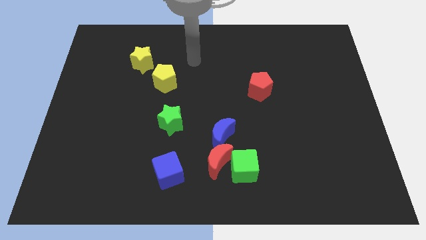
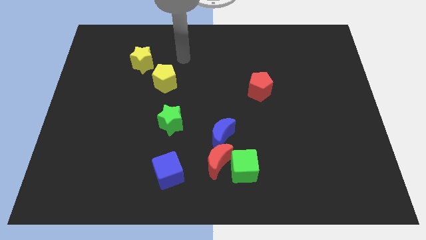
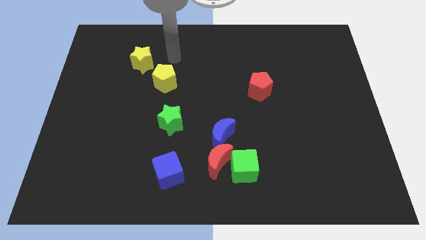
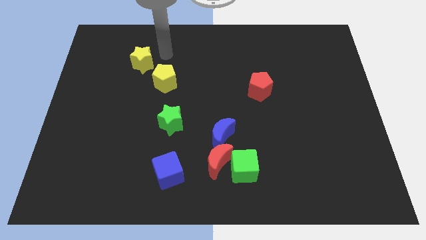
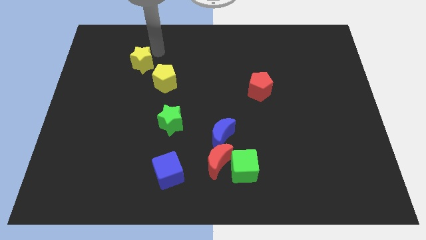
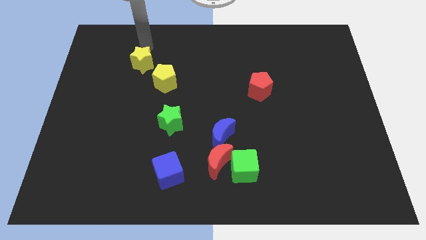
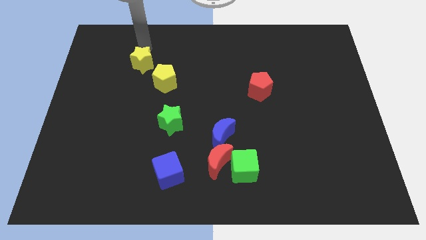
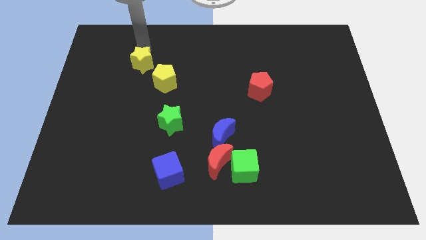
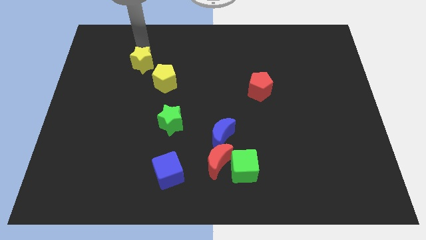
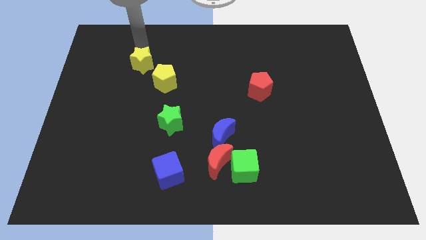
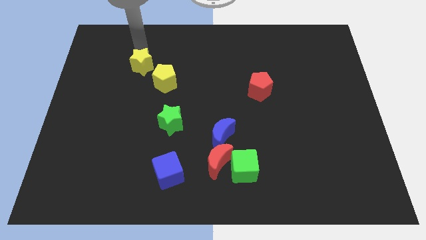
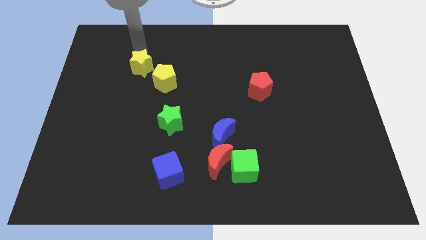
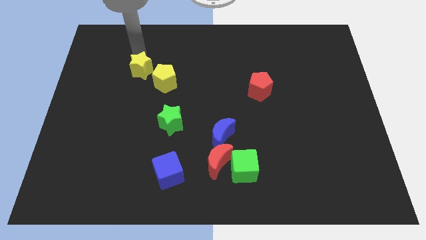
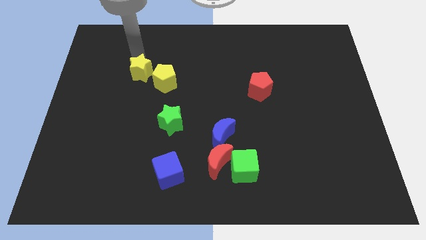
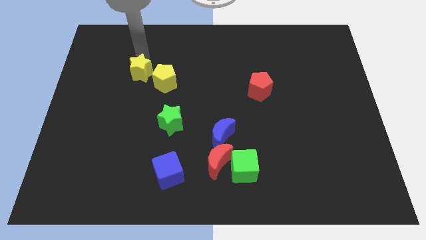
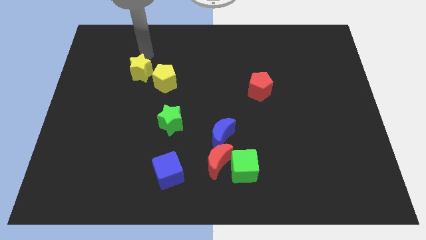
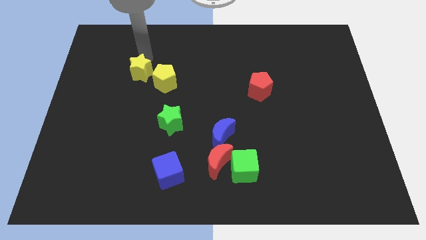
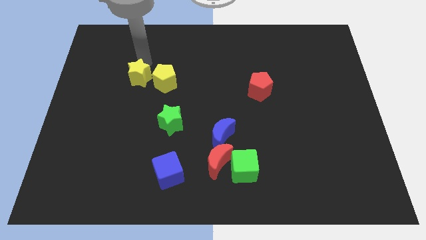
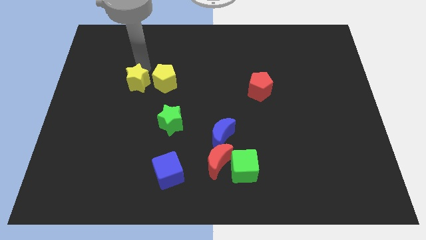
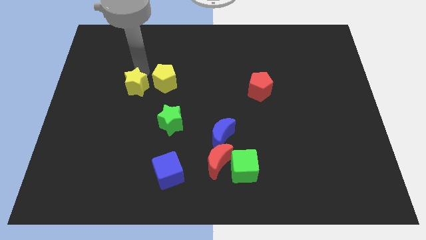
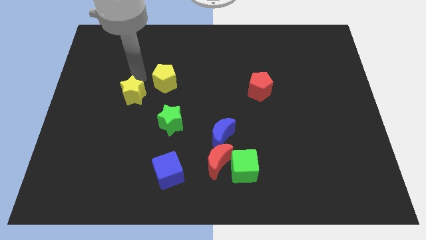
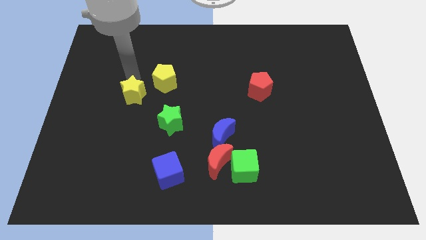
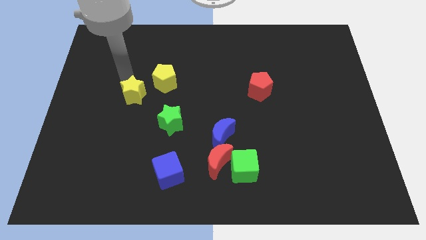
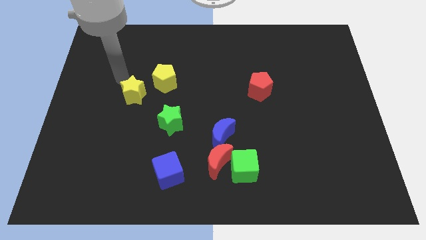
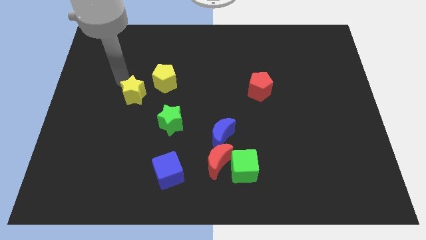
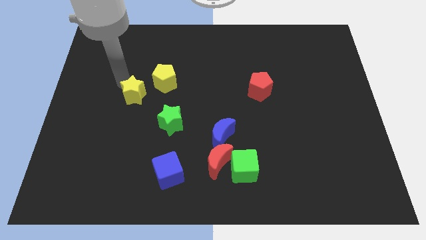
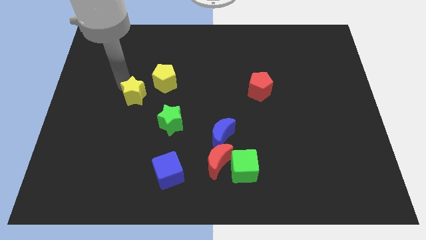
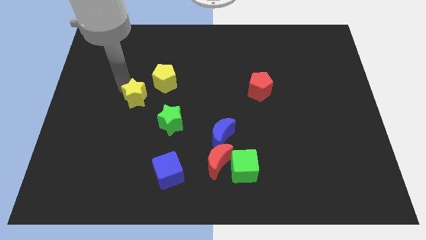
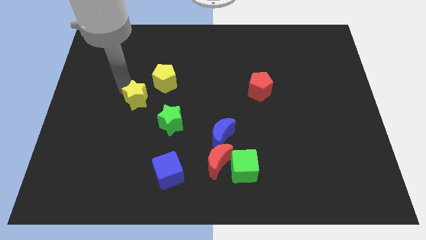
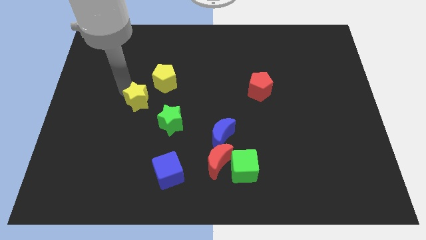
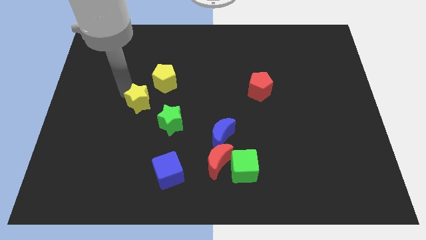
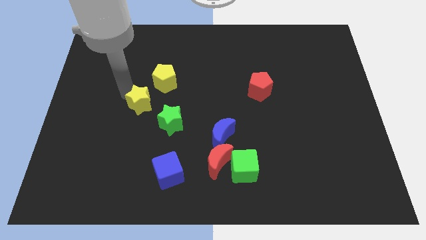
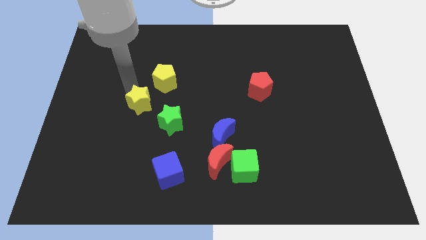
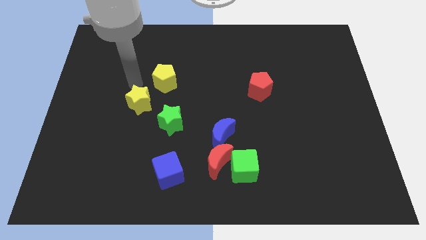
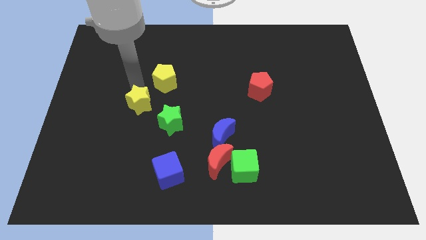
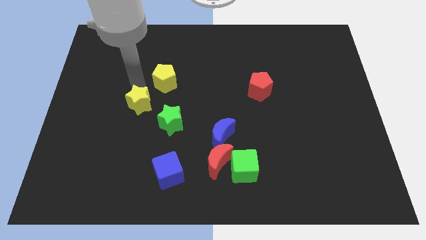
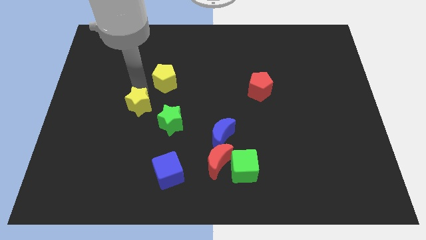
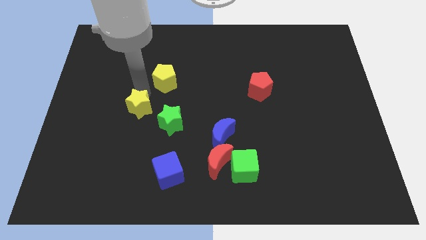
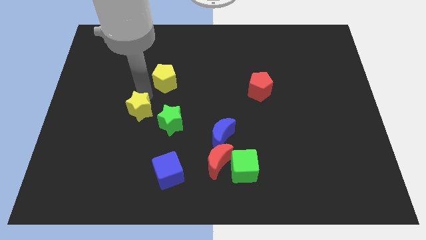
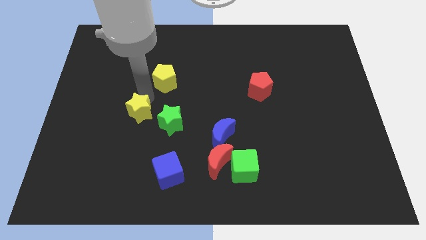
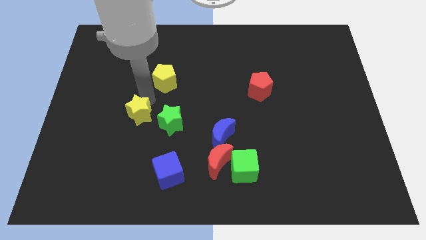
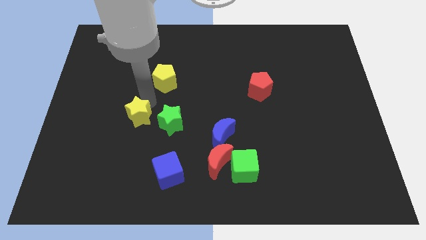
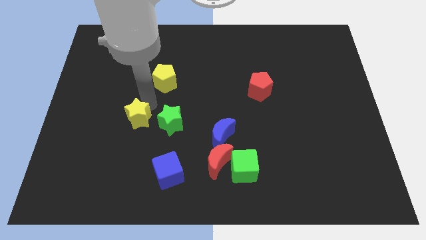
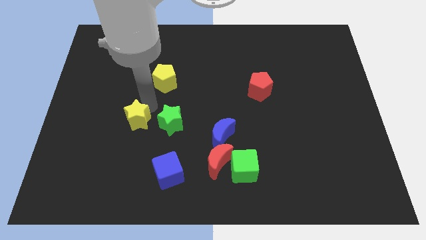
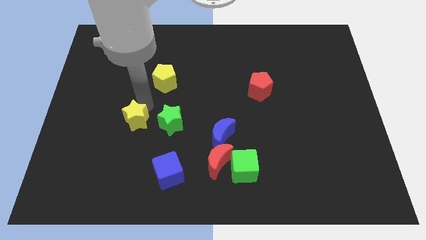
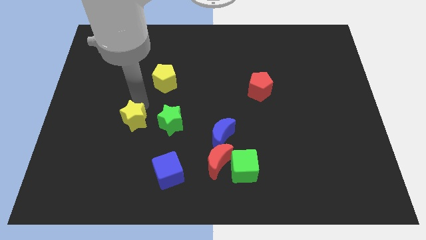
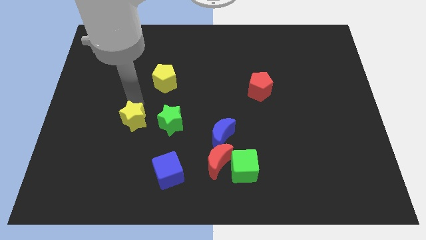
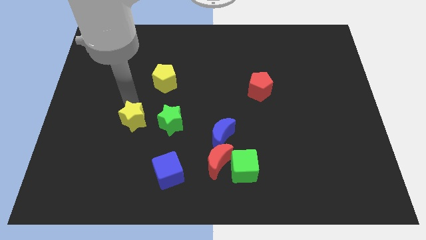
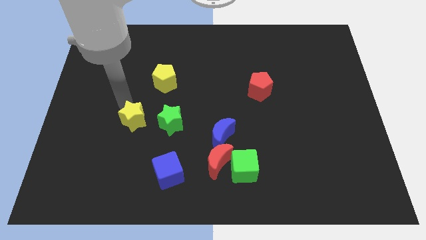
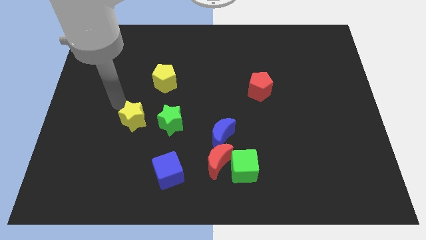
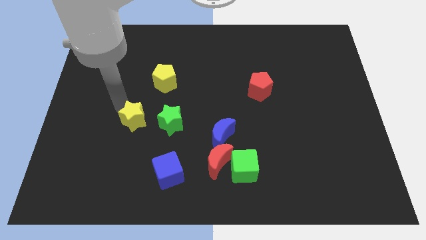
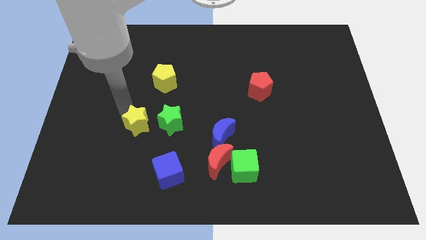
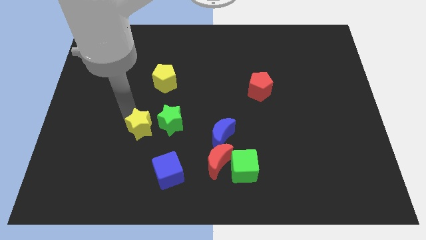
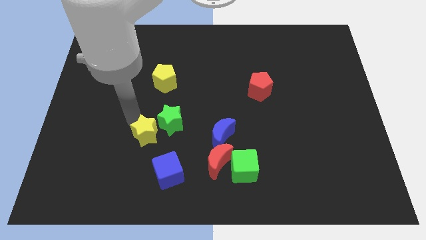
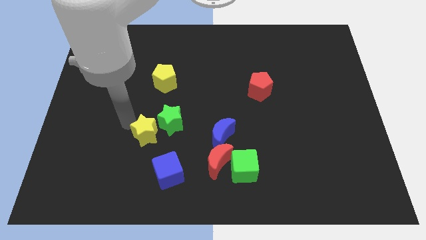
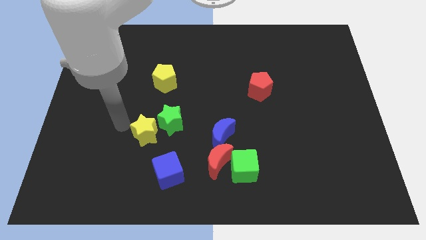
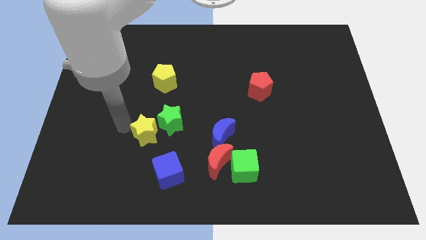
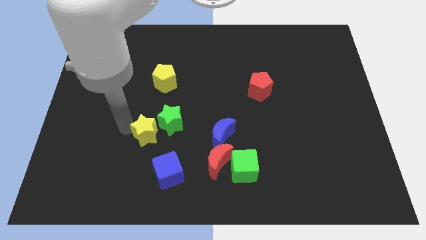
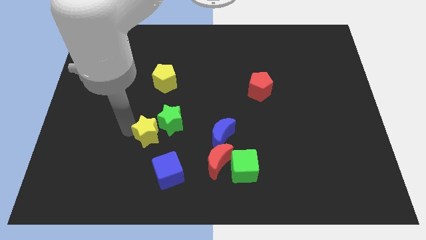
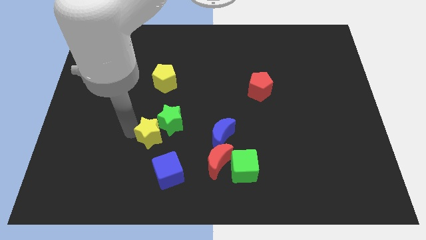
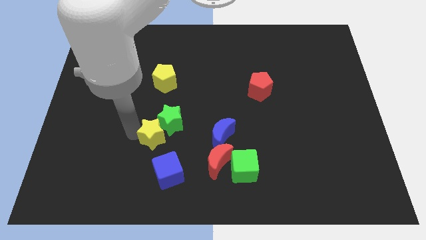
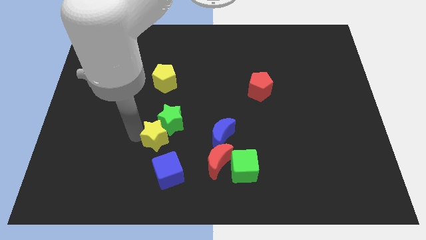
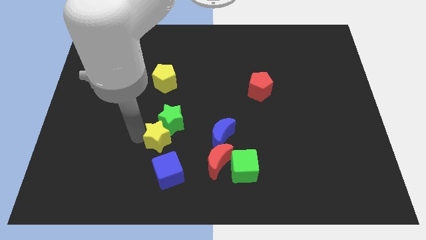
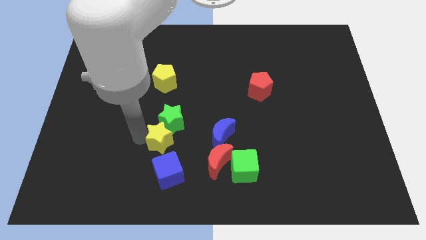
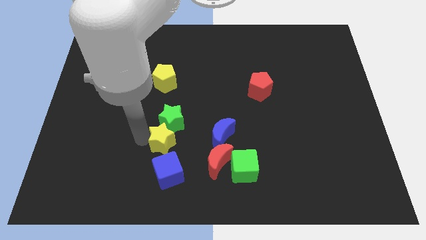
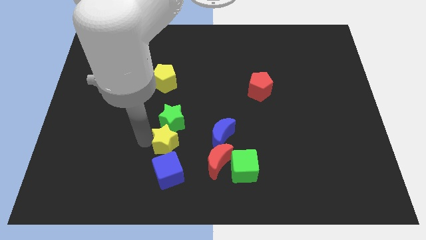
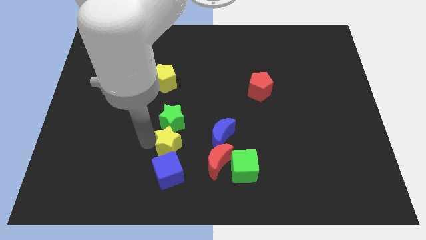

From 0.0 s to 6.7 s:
slide the yellow star diagonally up and to the left of the red moon

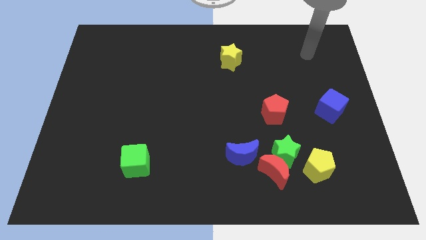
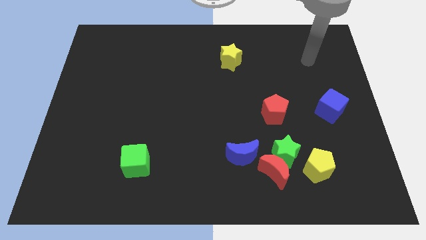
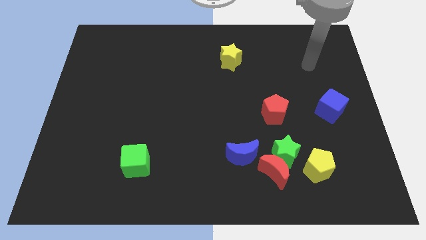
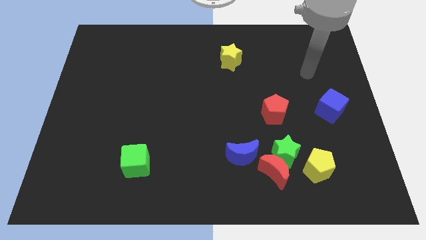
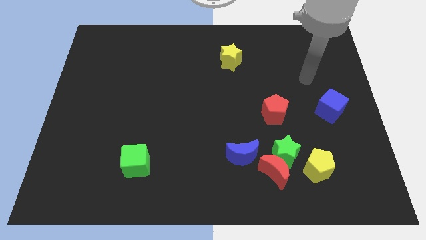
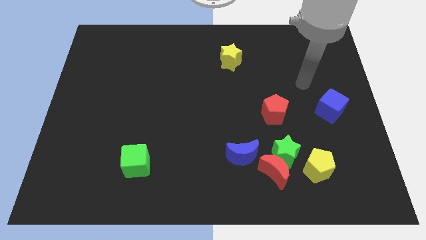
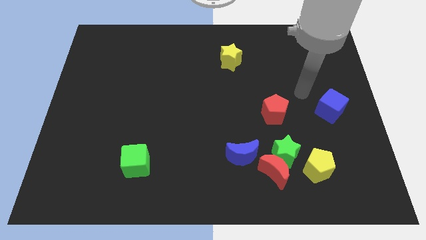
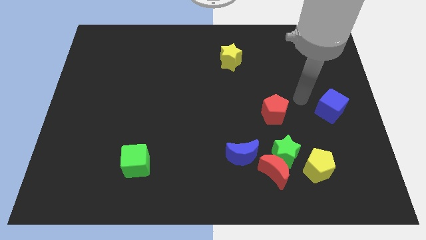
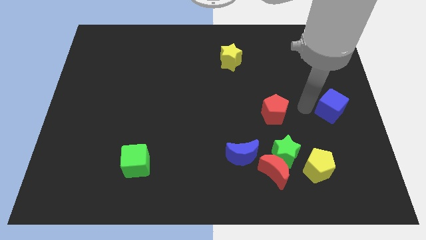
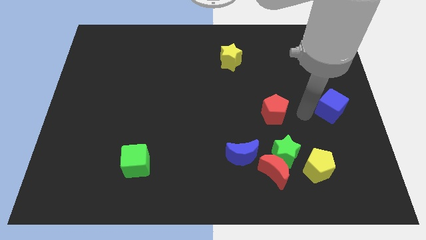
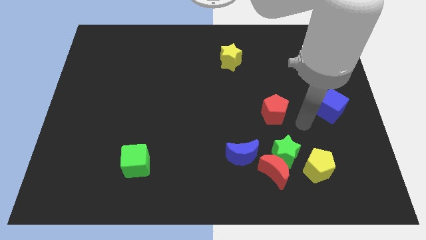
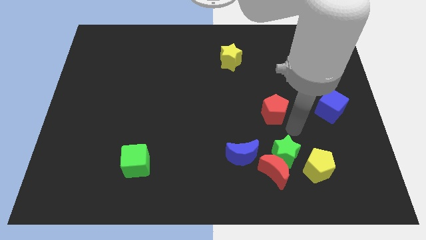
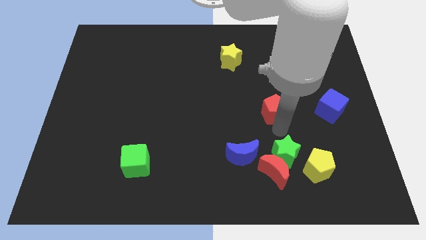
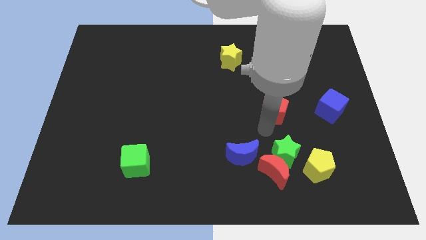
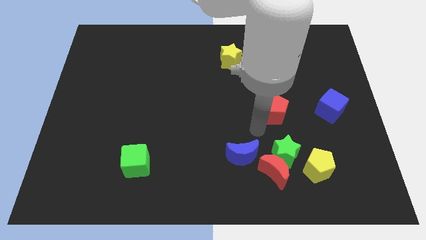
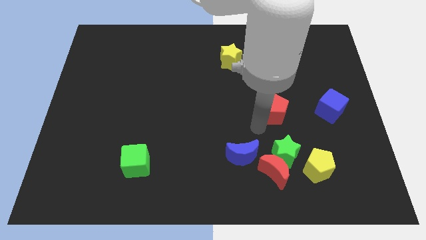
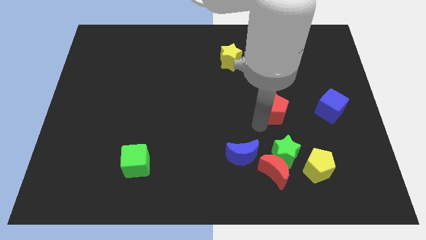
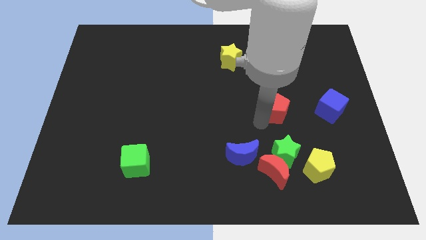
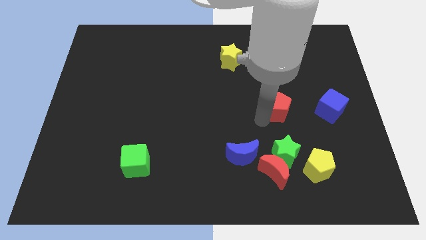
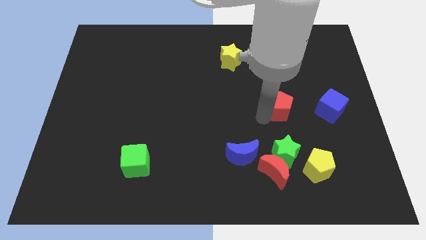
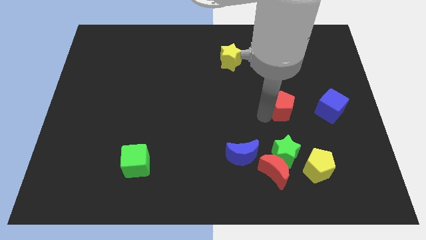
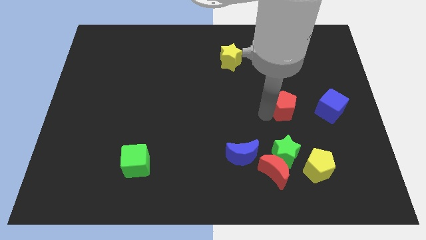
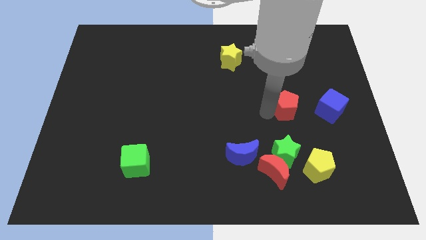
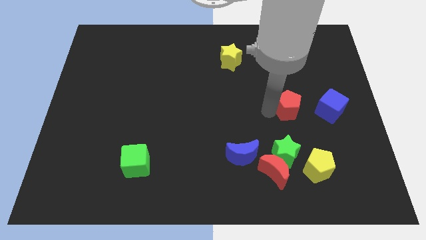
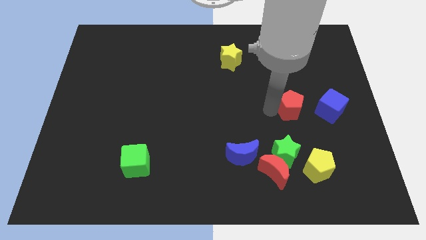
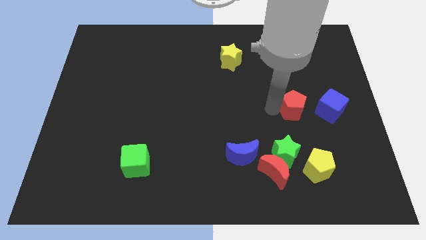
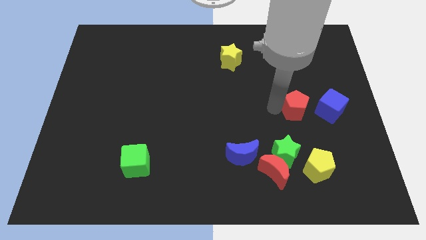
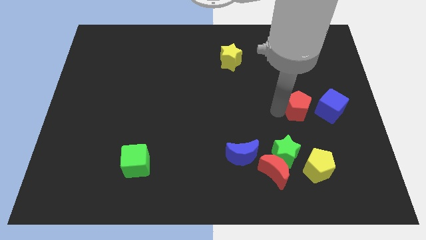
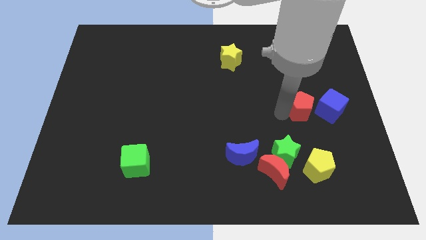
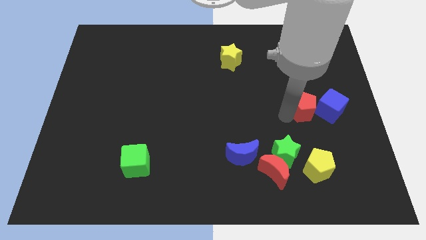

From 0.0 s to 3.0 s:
put the red pentagon to the top left of the blue cube
